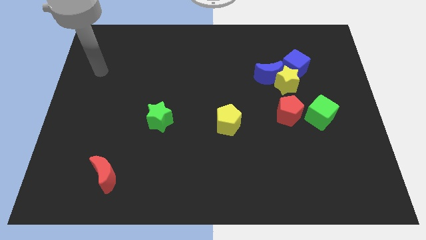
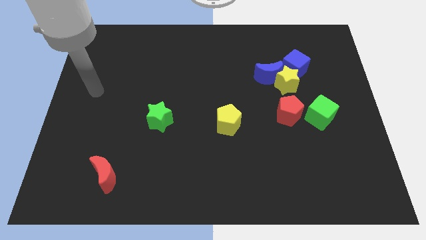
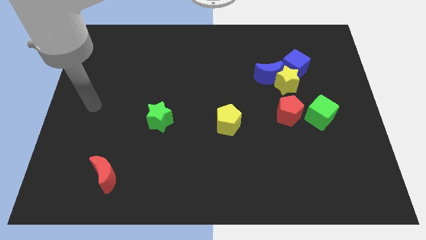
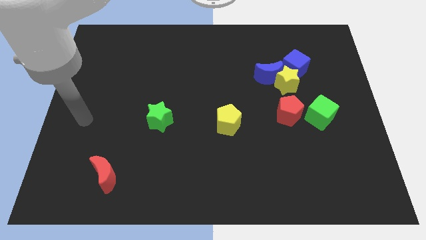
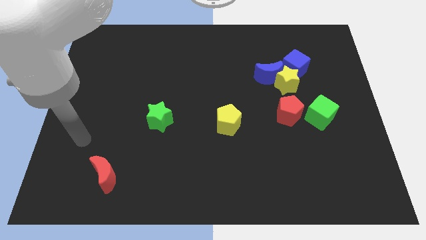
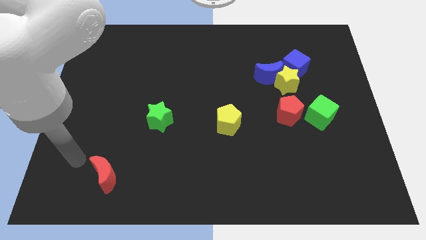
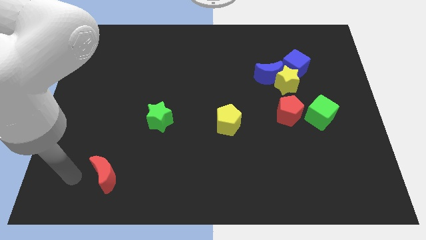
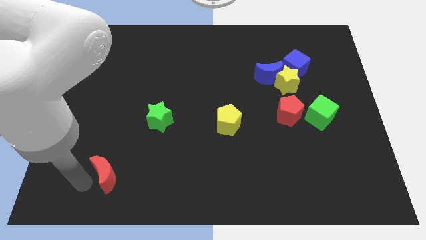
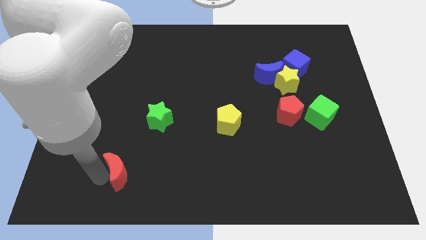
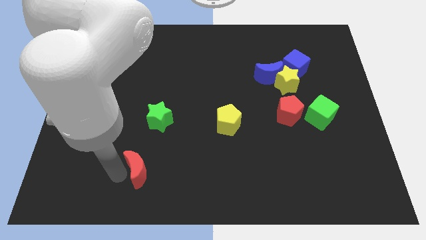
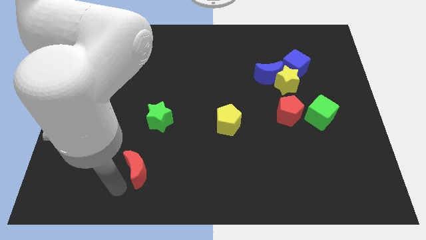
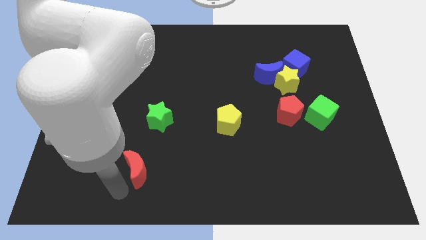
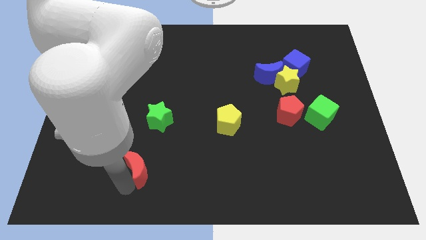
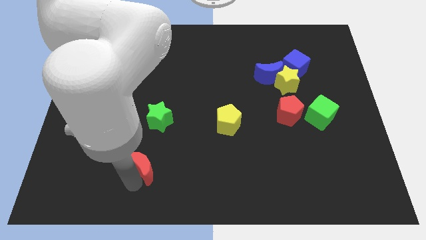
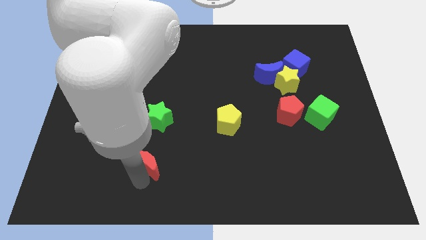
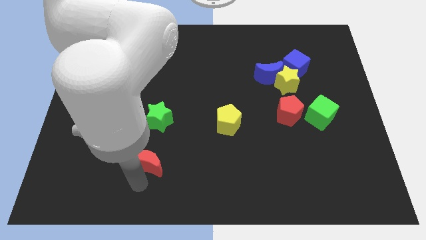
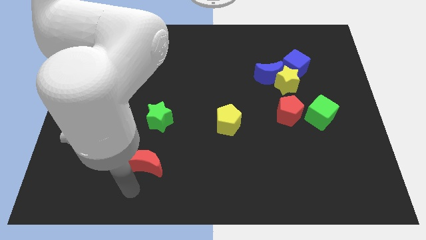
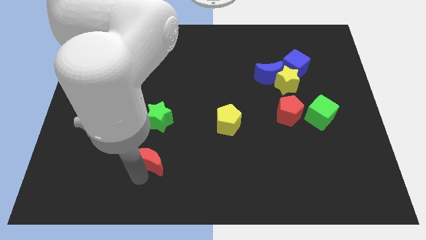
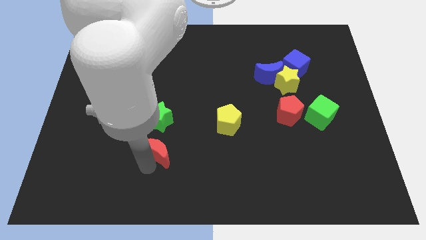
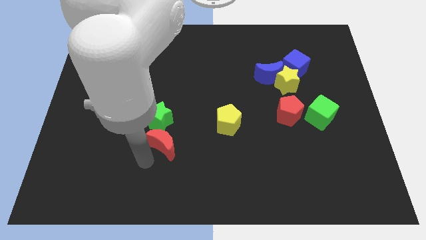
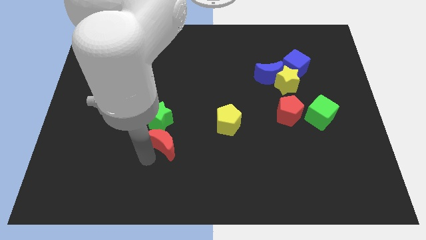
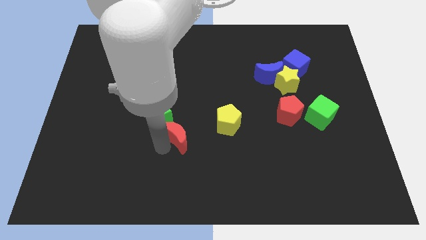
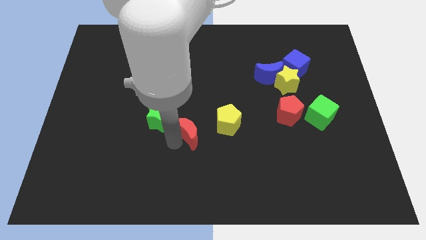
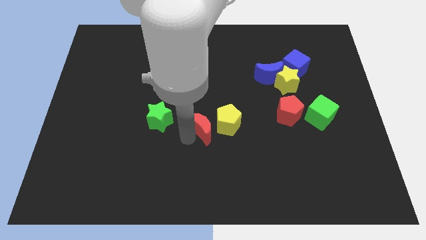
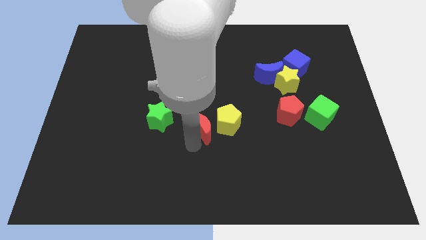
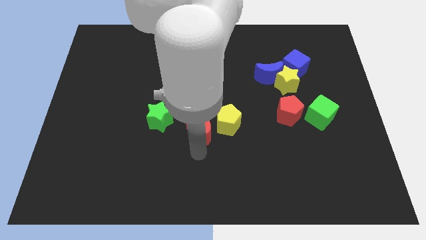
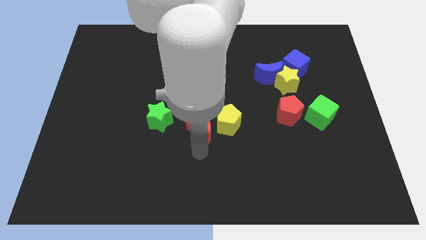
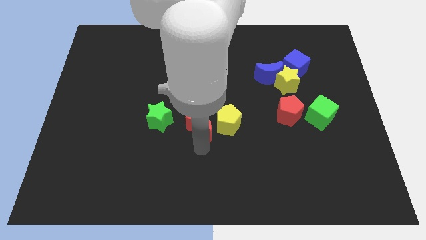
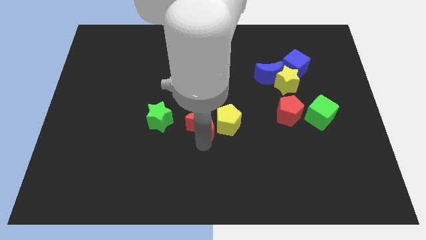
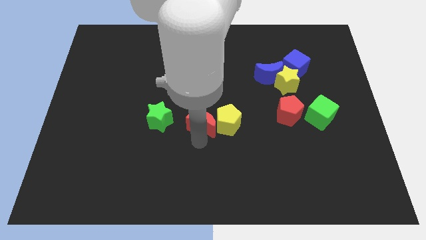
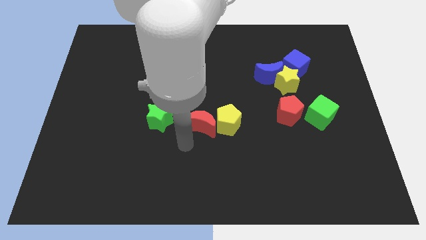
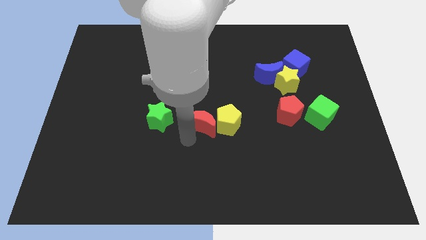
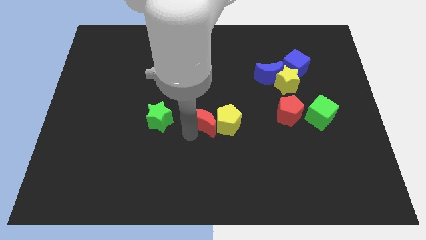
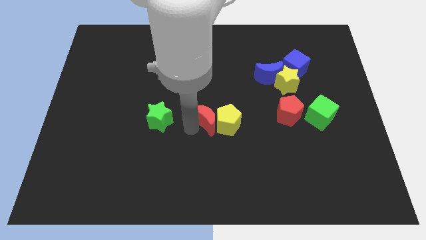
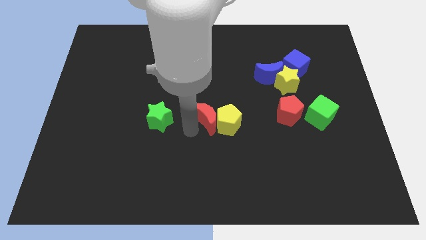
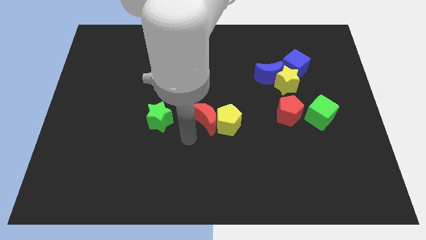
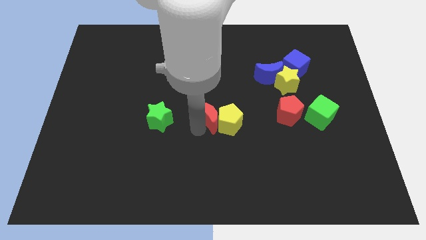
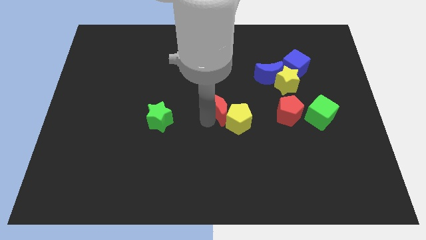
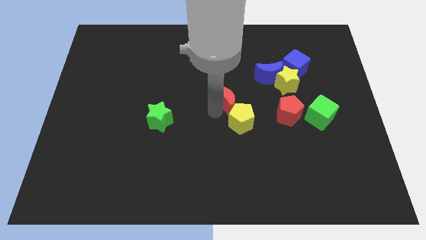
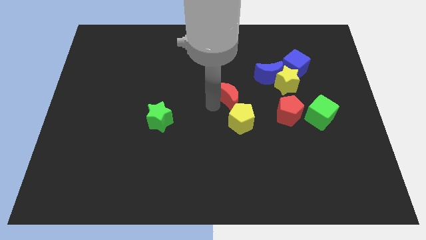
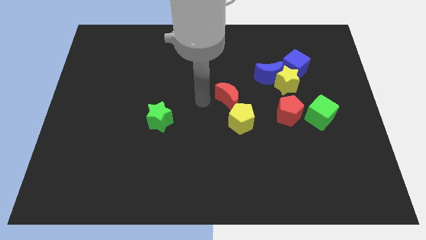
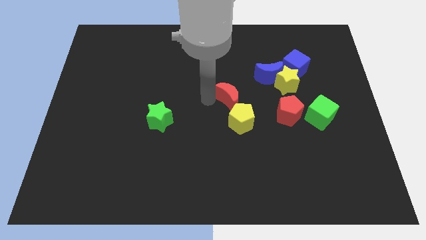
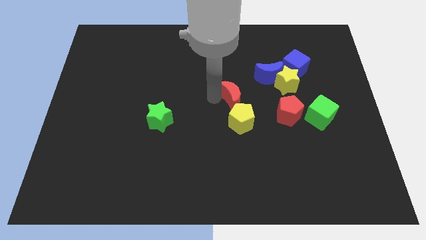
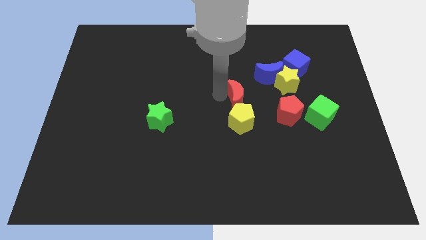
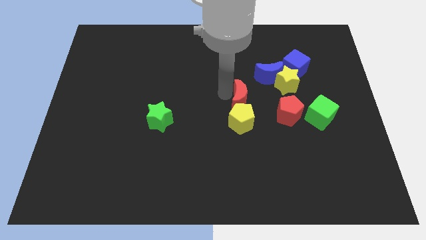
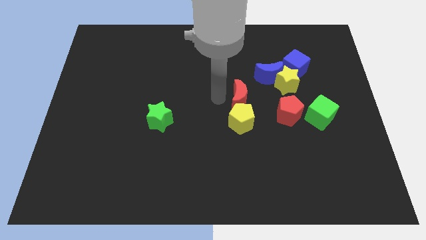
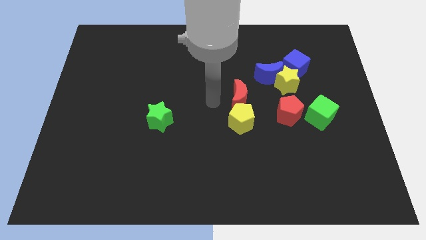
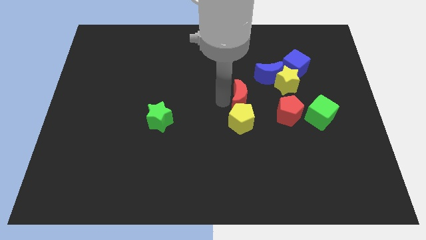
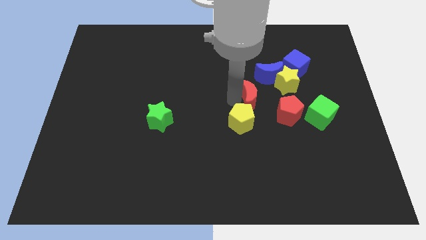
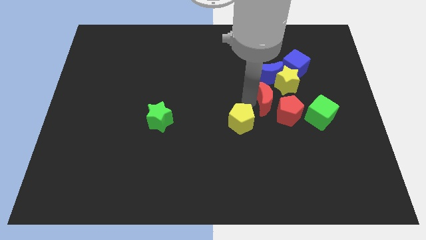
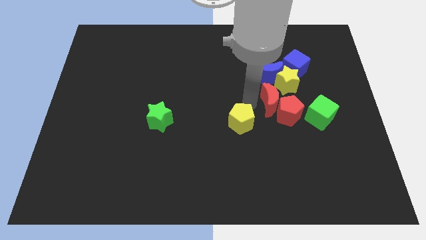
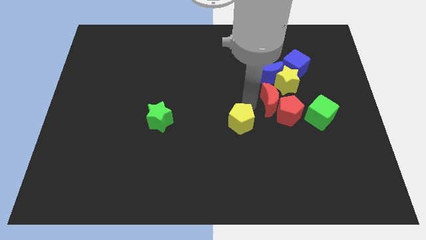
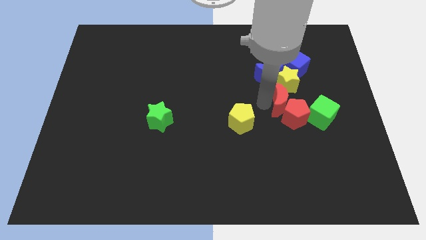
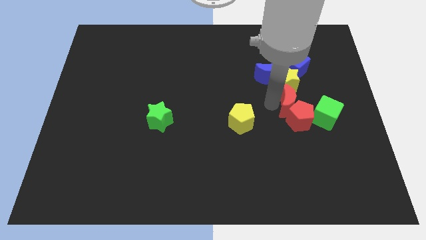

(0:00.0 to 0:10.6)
push the red moon to the bottom side of the blue cube

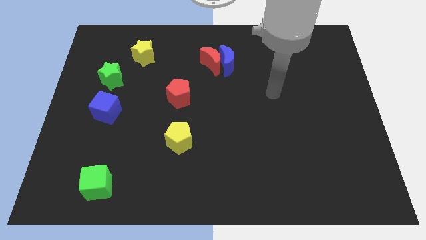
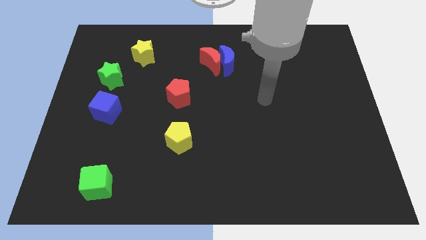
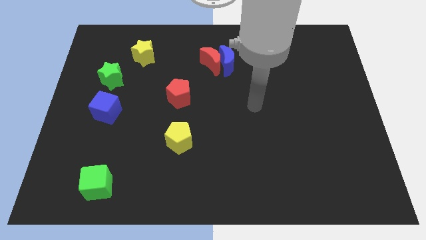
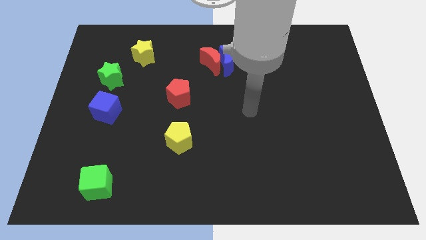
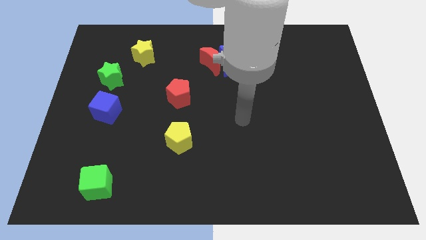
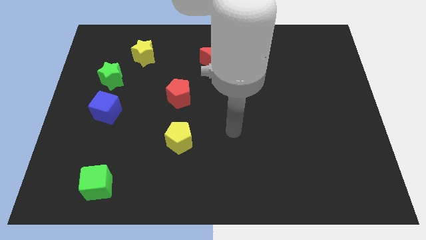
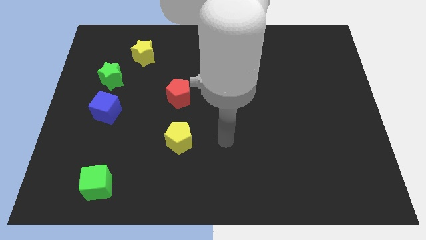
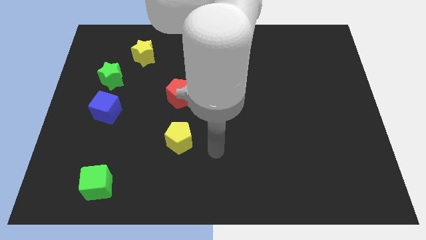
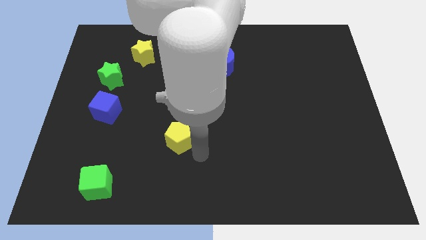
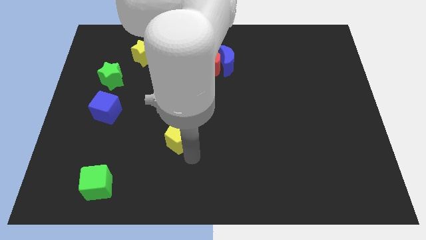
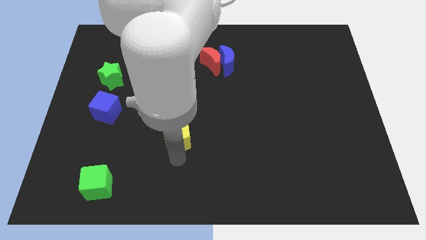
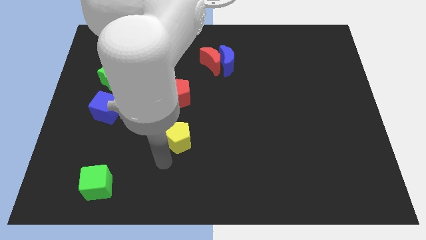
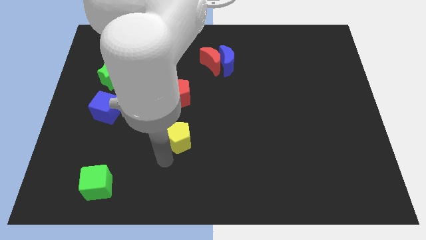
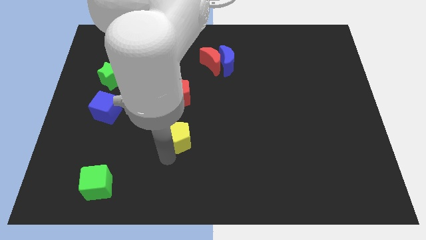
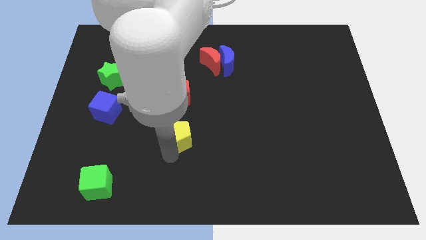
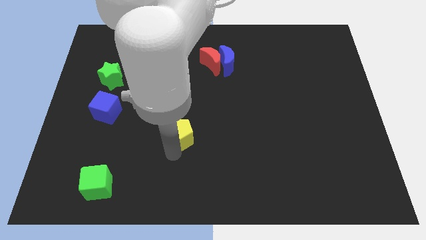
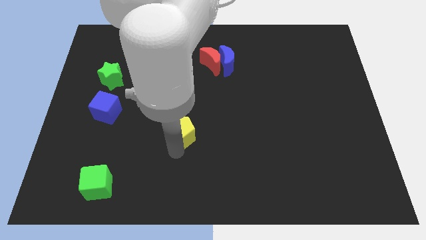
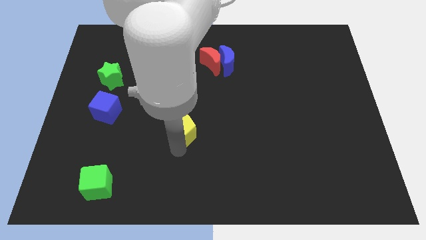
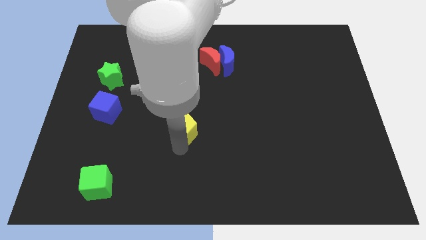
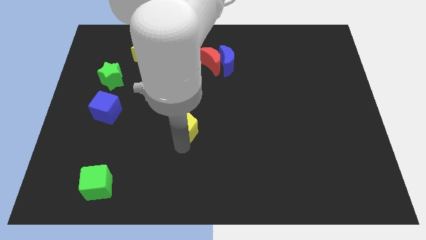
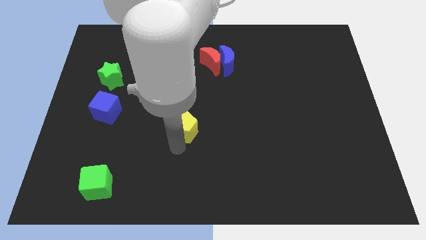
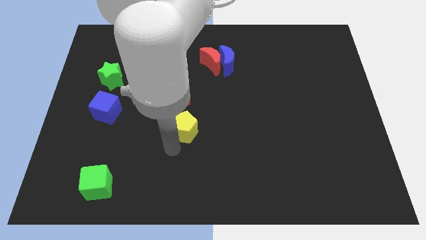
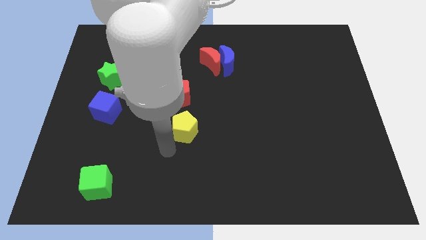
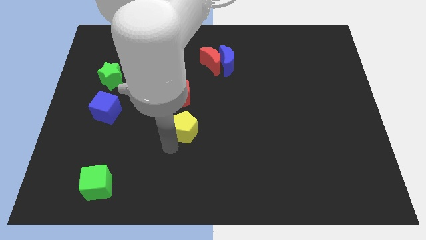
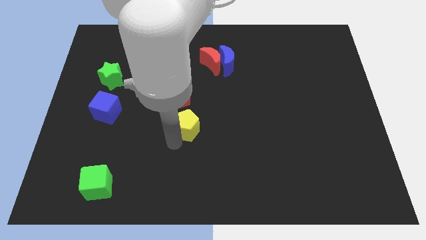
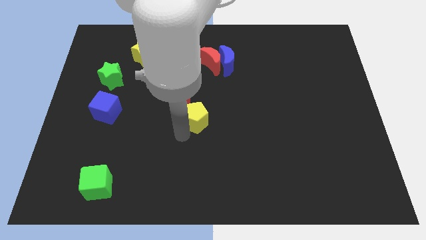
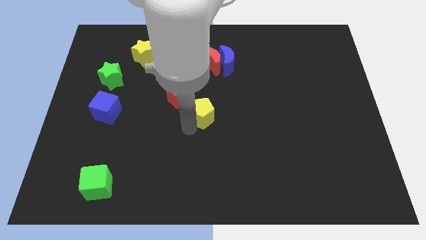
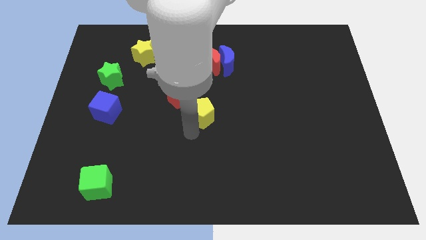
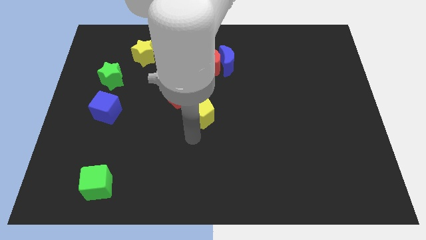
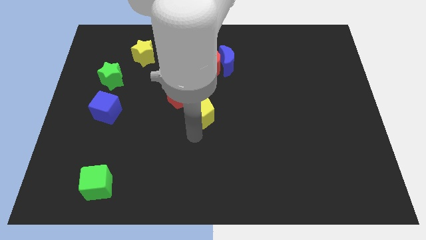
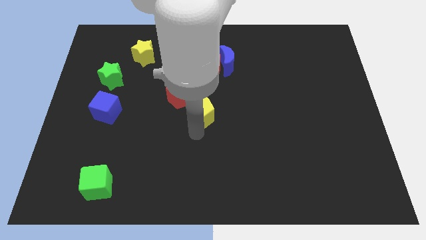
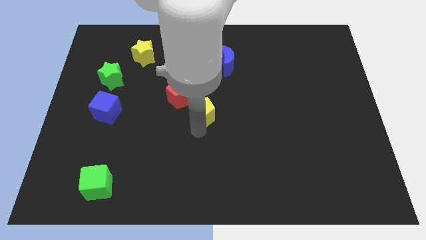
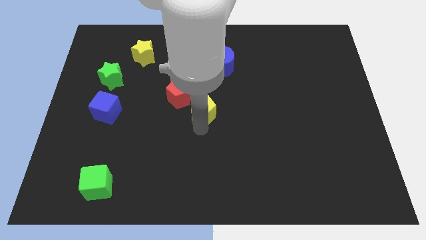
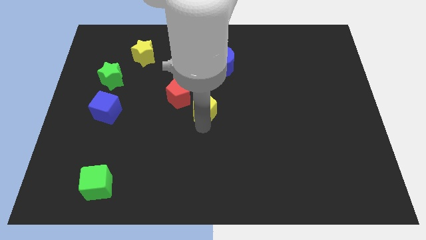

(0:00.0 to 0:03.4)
put the yellow pentagon to the bottom of the red moon
